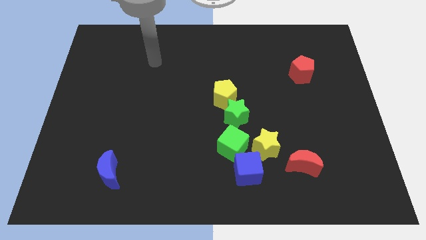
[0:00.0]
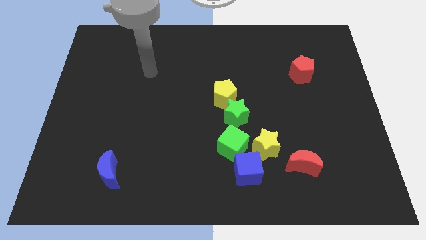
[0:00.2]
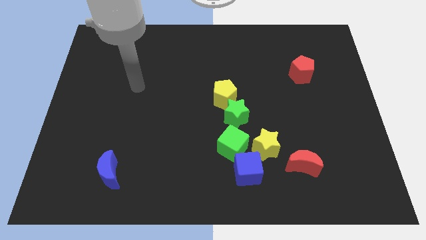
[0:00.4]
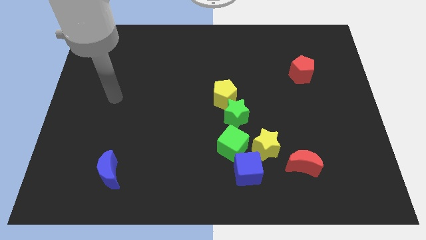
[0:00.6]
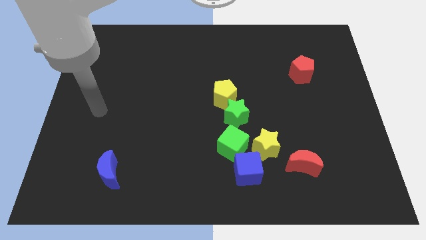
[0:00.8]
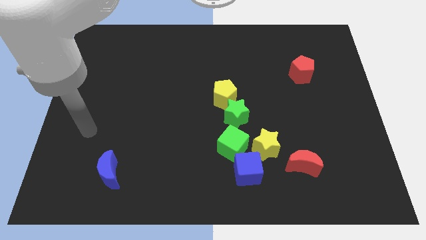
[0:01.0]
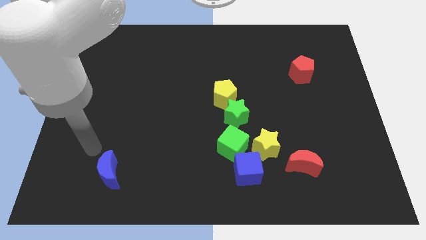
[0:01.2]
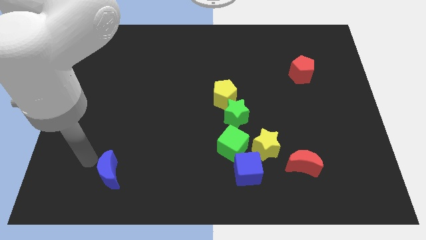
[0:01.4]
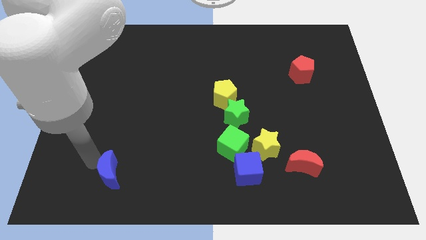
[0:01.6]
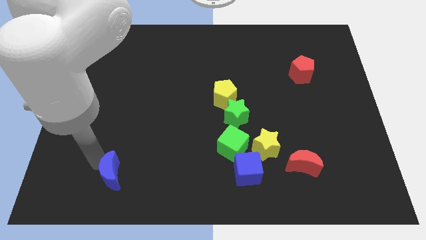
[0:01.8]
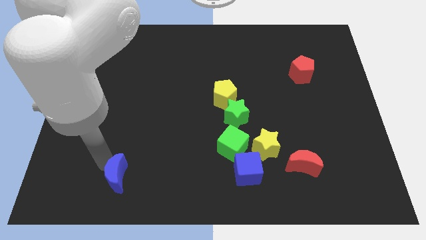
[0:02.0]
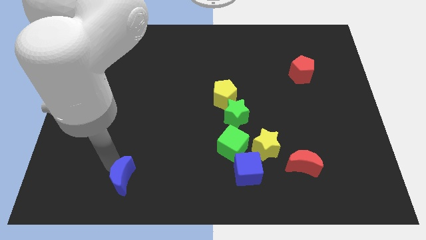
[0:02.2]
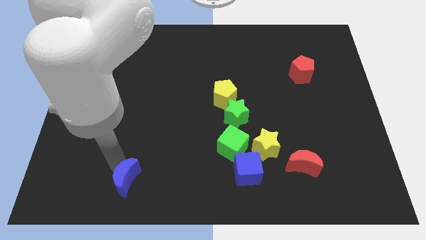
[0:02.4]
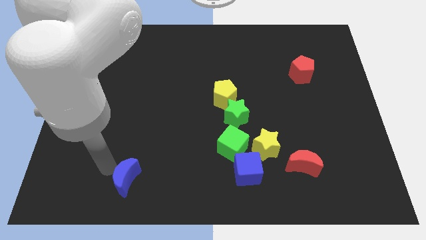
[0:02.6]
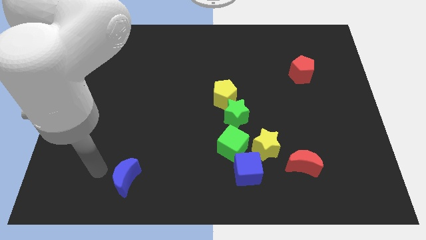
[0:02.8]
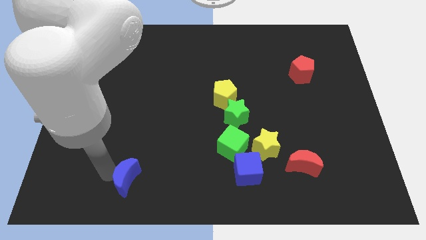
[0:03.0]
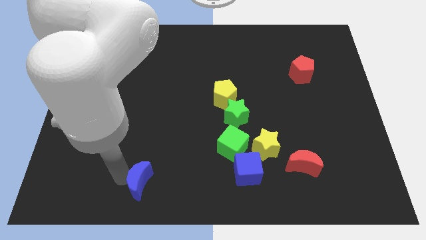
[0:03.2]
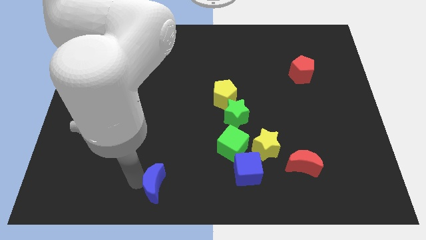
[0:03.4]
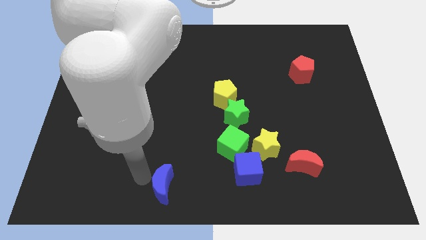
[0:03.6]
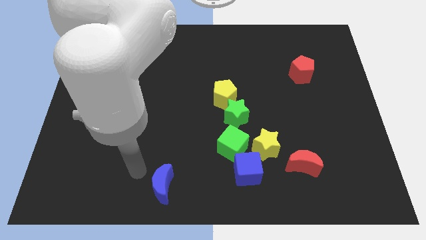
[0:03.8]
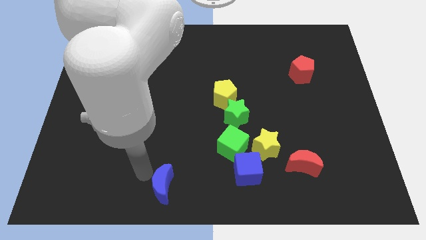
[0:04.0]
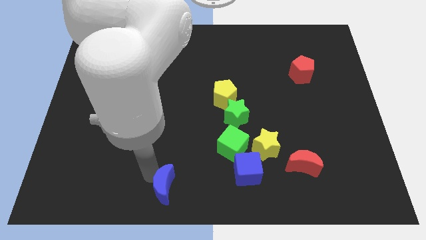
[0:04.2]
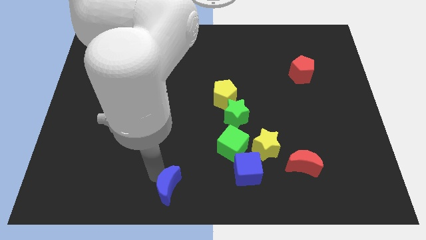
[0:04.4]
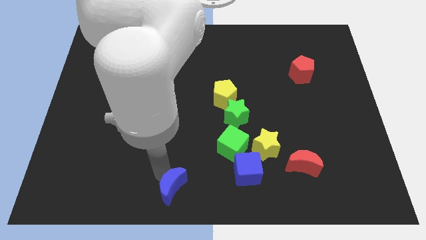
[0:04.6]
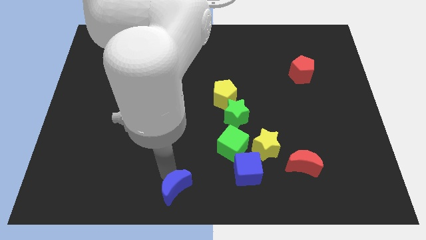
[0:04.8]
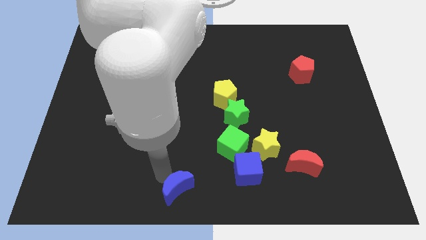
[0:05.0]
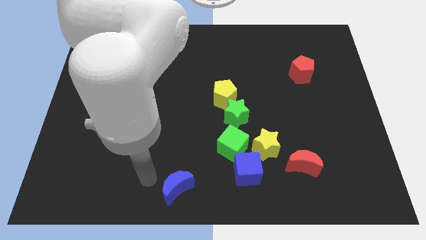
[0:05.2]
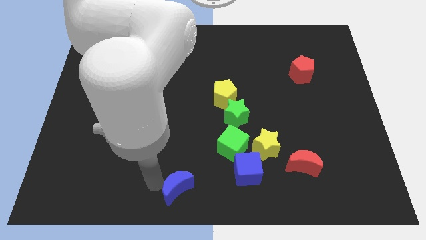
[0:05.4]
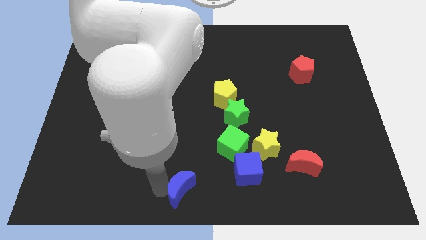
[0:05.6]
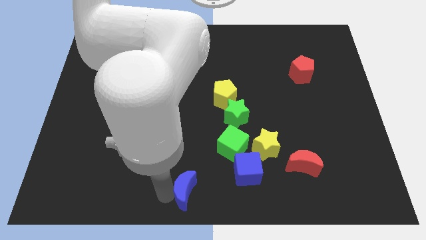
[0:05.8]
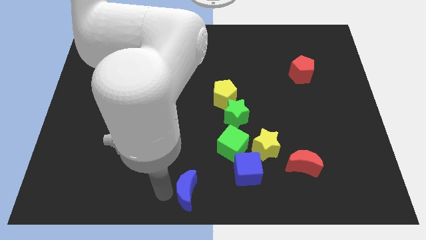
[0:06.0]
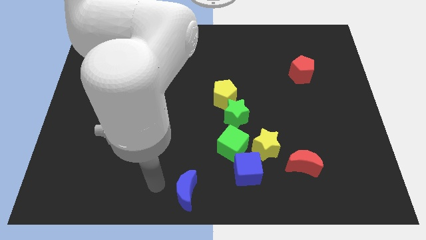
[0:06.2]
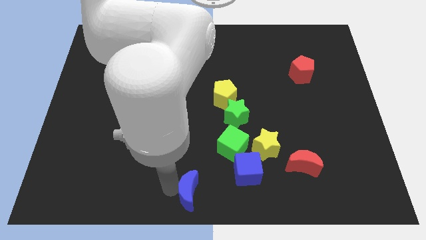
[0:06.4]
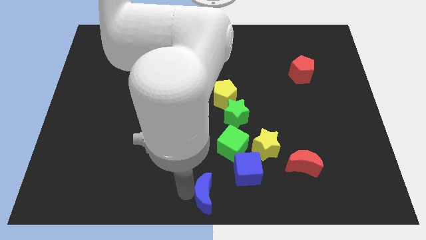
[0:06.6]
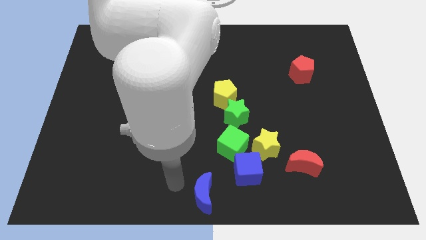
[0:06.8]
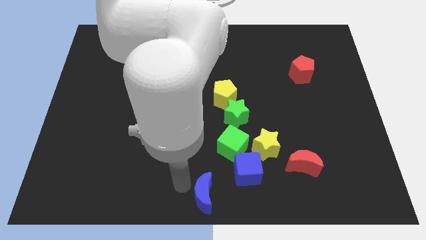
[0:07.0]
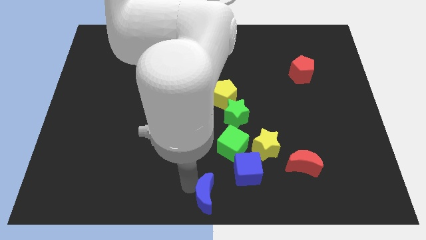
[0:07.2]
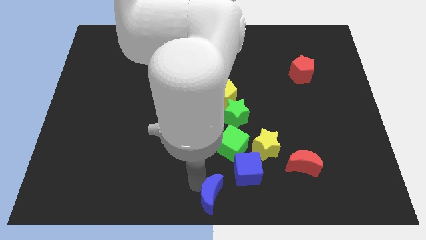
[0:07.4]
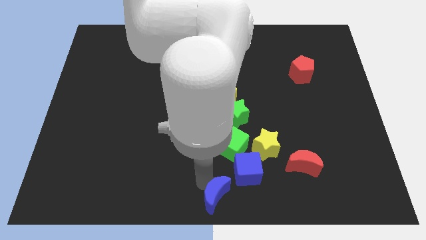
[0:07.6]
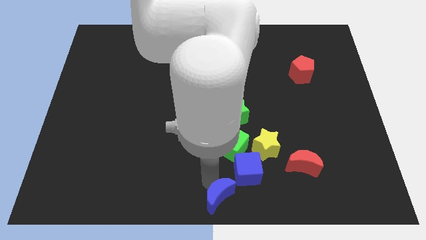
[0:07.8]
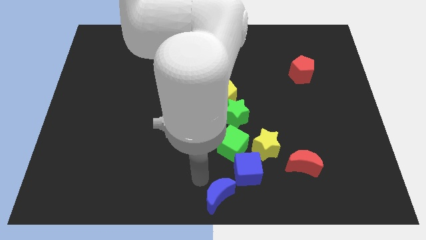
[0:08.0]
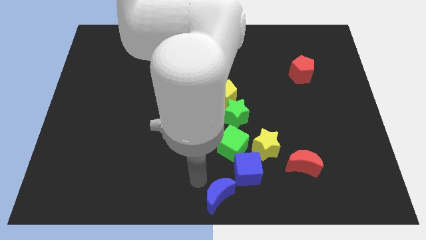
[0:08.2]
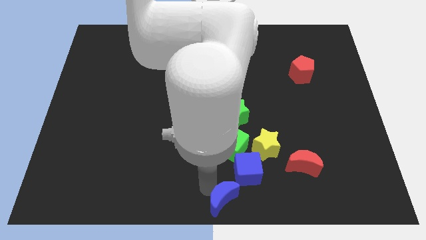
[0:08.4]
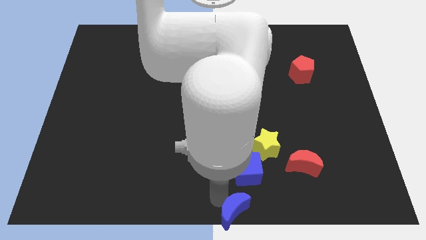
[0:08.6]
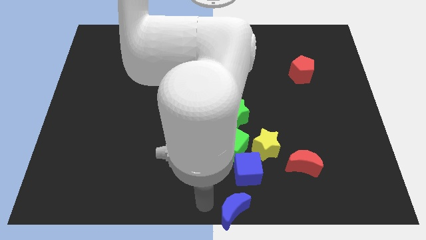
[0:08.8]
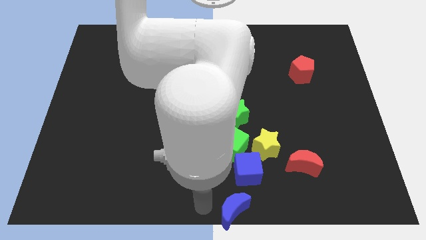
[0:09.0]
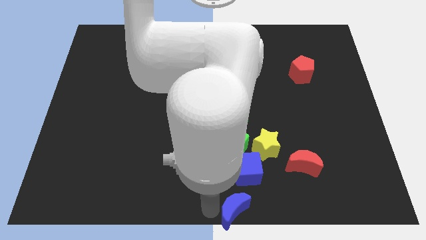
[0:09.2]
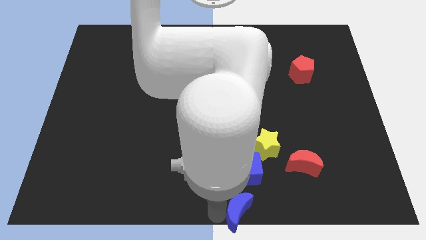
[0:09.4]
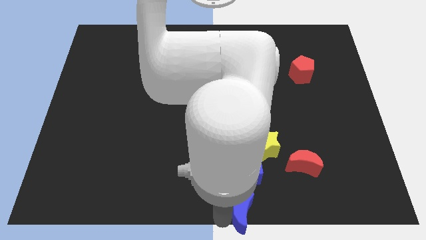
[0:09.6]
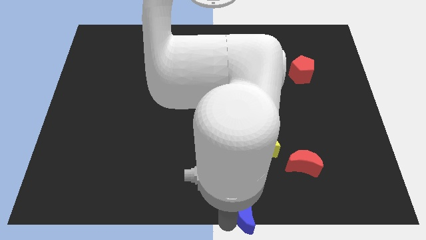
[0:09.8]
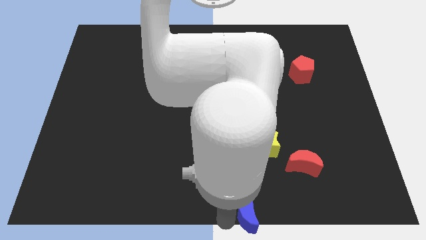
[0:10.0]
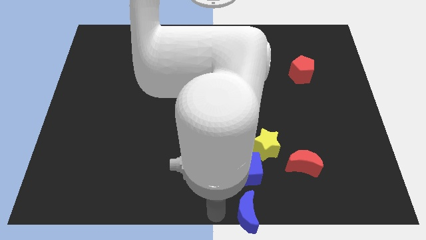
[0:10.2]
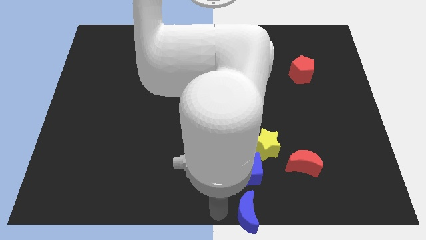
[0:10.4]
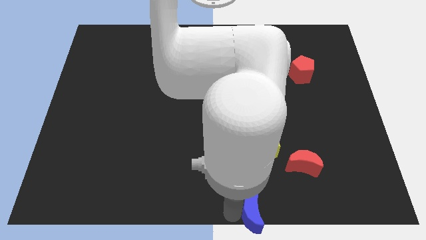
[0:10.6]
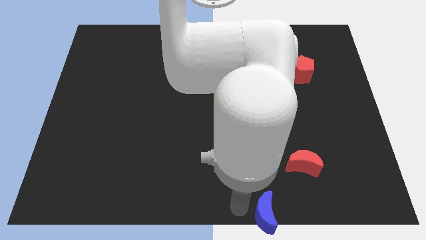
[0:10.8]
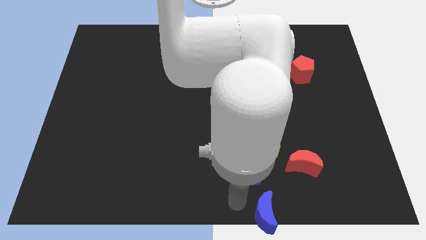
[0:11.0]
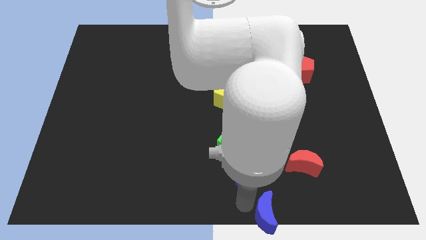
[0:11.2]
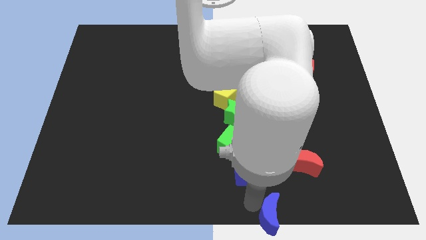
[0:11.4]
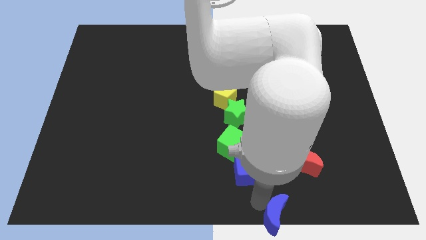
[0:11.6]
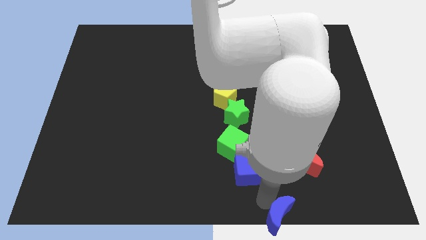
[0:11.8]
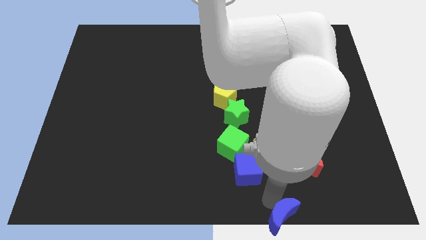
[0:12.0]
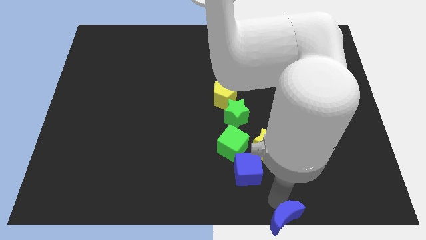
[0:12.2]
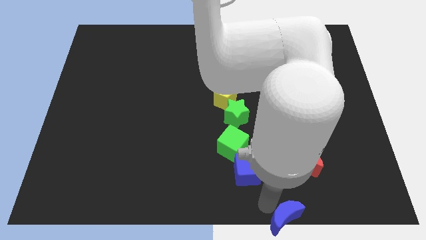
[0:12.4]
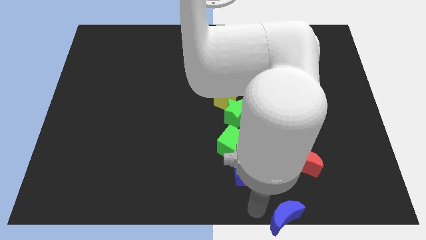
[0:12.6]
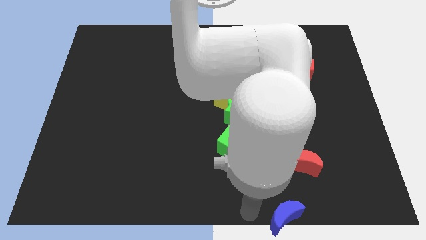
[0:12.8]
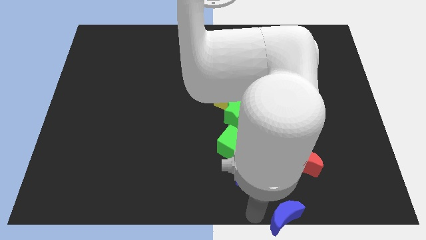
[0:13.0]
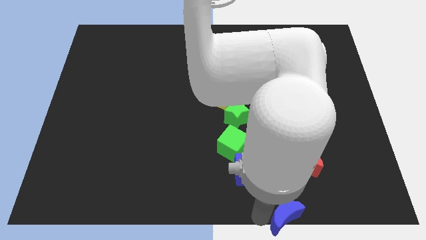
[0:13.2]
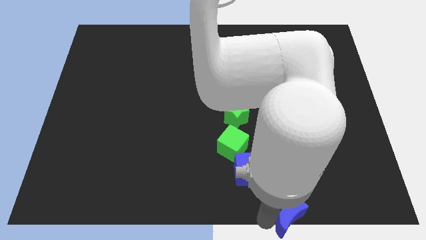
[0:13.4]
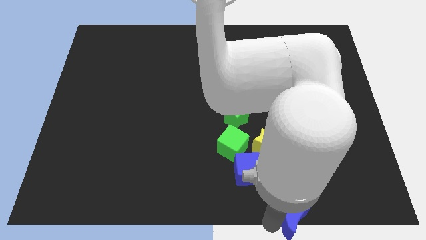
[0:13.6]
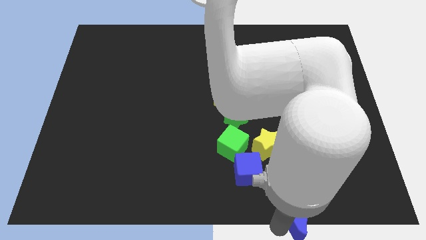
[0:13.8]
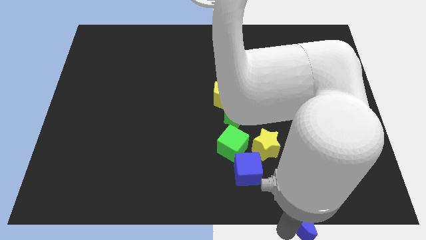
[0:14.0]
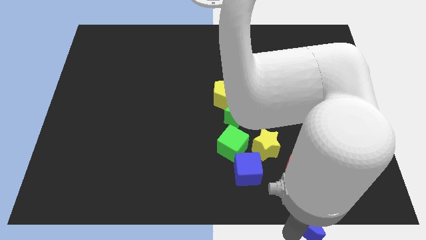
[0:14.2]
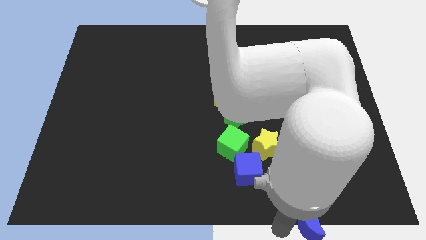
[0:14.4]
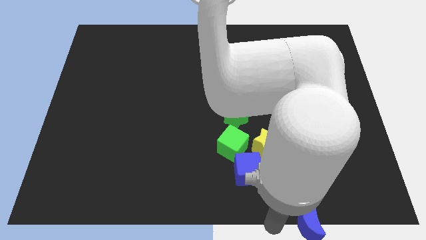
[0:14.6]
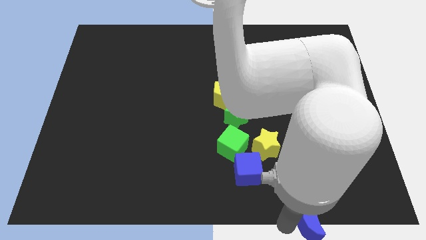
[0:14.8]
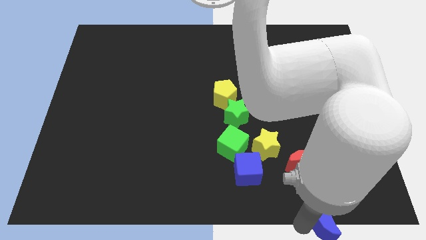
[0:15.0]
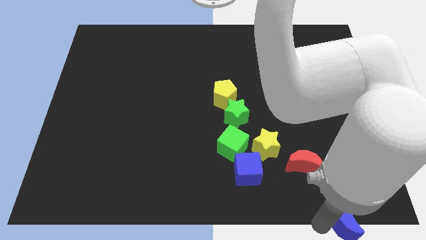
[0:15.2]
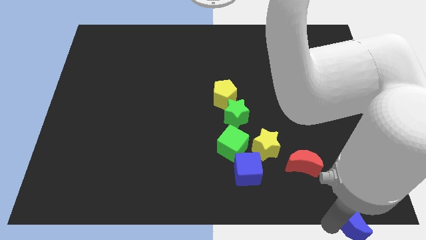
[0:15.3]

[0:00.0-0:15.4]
push the blue moon to the bottom right of the board
